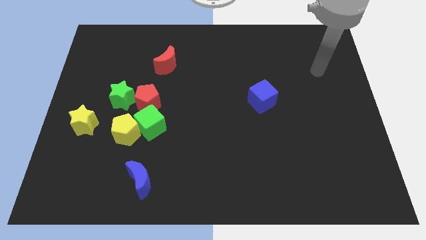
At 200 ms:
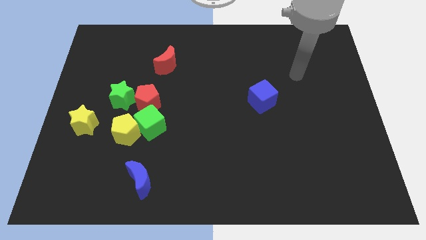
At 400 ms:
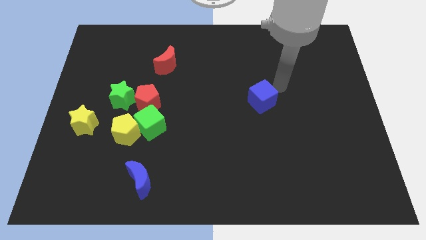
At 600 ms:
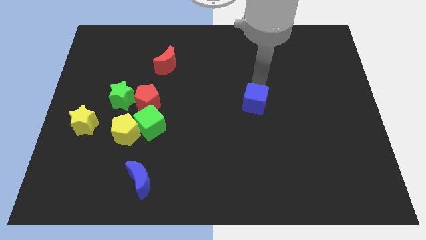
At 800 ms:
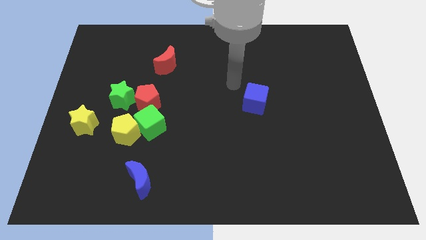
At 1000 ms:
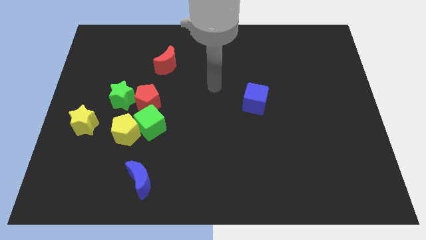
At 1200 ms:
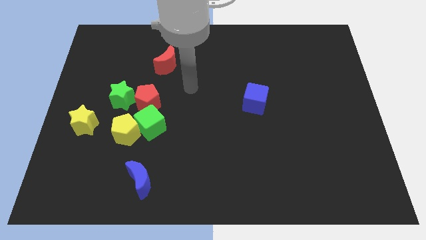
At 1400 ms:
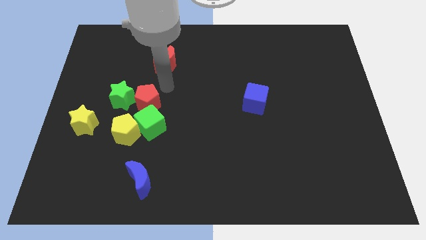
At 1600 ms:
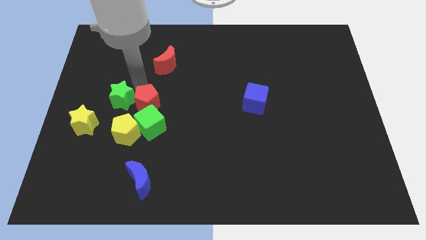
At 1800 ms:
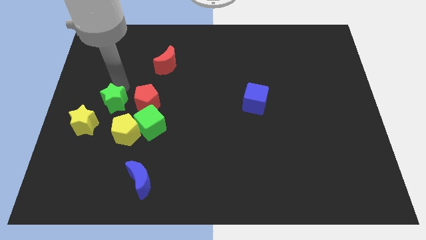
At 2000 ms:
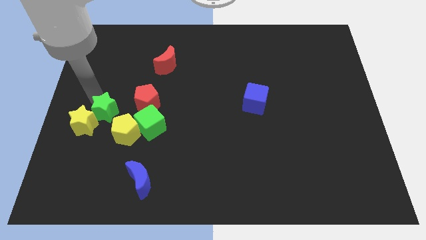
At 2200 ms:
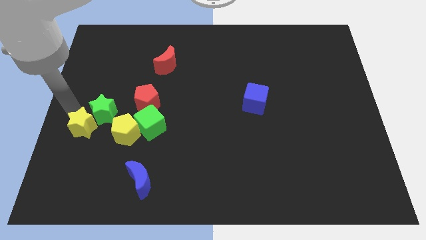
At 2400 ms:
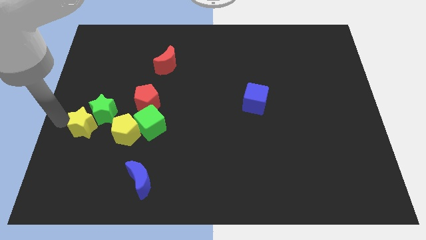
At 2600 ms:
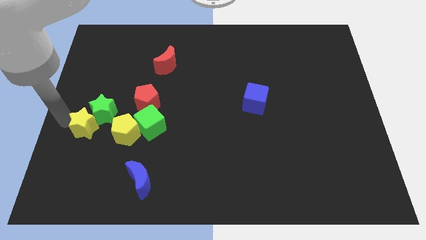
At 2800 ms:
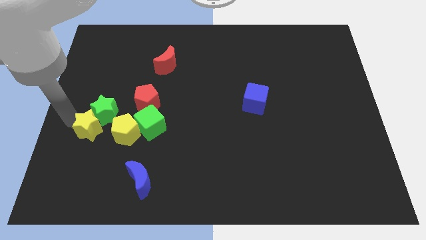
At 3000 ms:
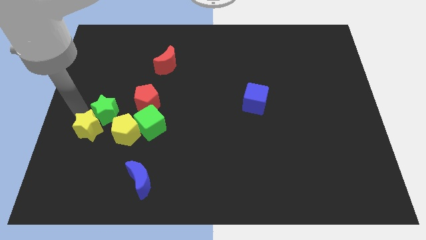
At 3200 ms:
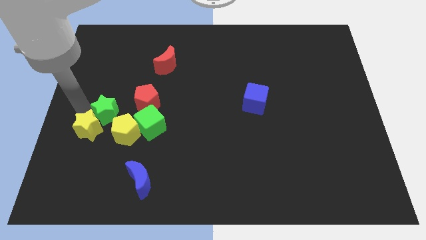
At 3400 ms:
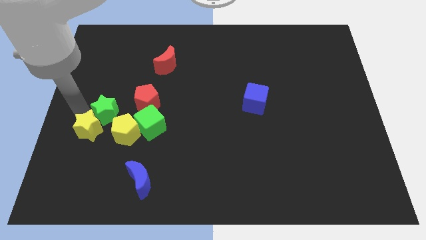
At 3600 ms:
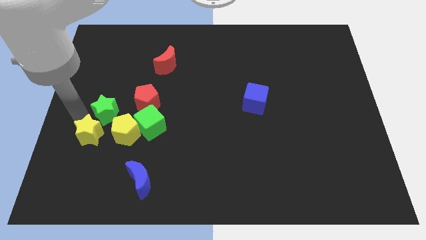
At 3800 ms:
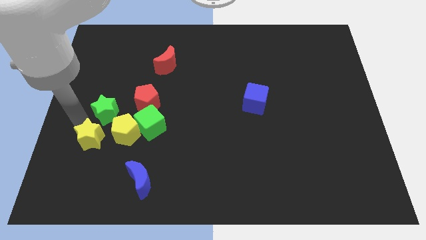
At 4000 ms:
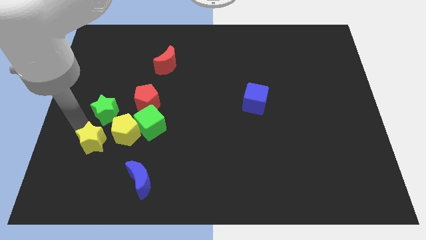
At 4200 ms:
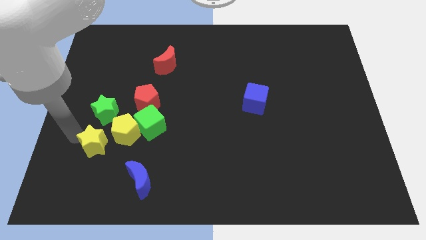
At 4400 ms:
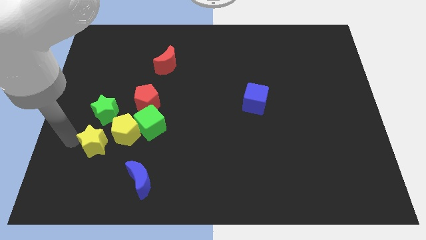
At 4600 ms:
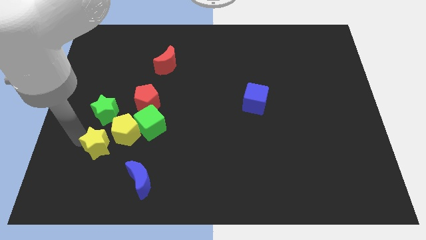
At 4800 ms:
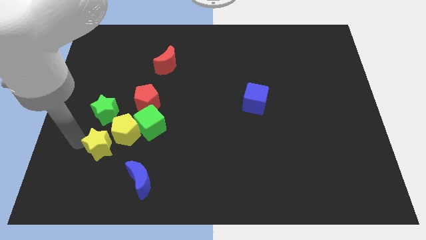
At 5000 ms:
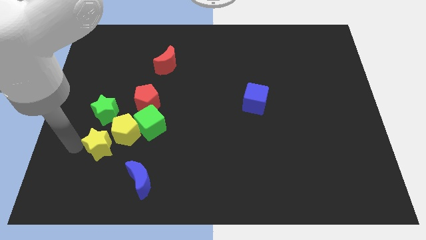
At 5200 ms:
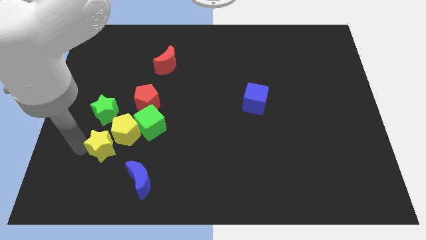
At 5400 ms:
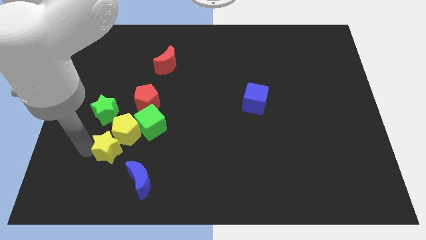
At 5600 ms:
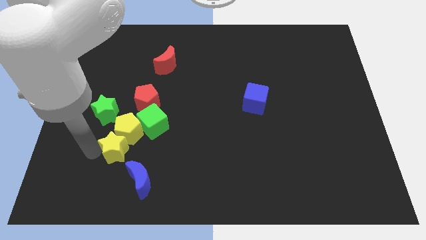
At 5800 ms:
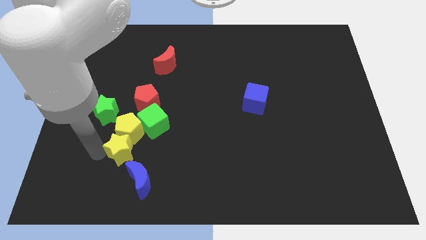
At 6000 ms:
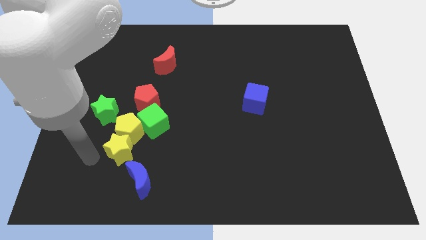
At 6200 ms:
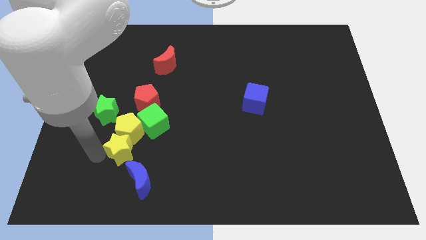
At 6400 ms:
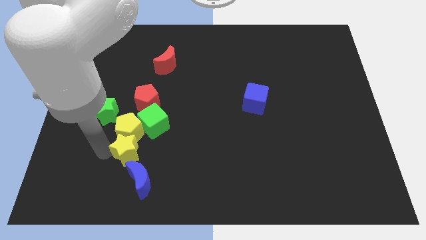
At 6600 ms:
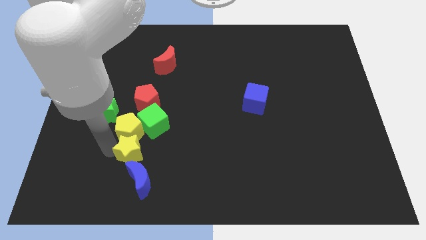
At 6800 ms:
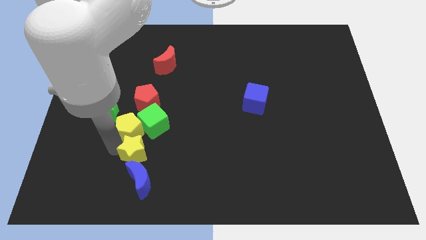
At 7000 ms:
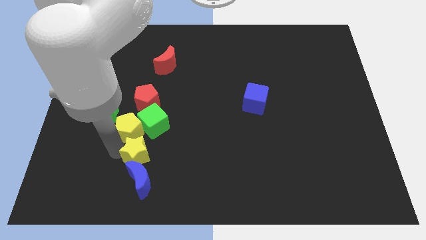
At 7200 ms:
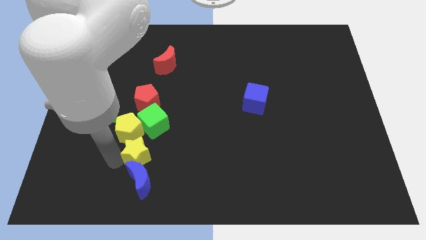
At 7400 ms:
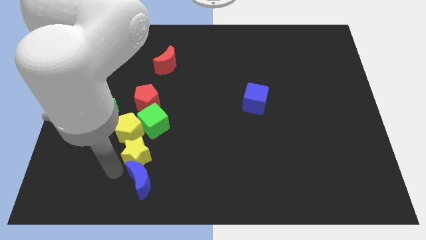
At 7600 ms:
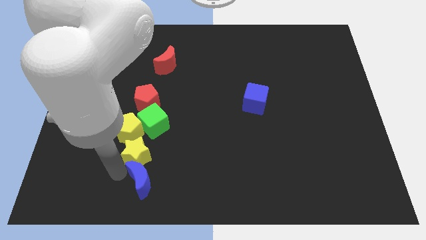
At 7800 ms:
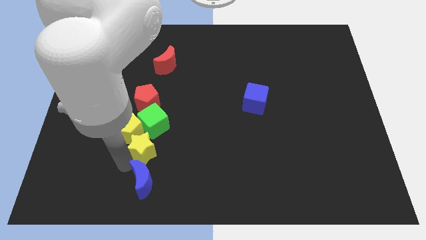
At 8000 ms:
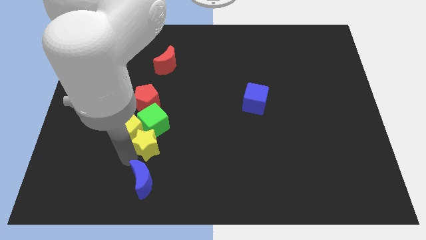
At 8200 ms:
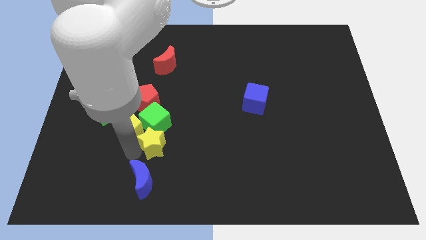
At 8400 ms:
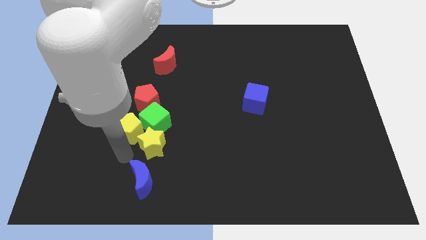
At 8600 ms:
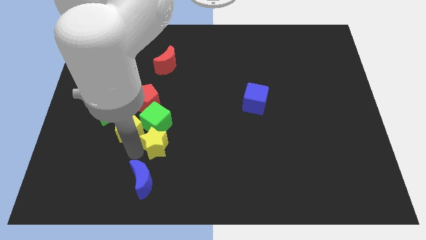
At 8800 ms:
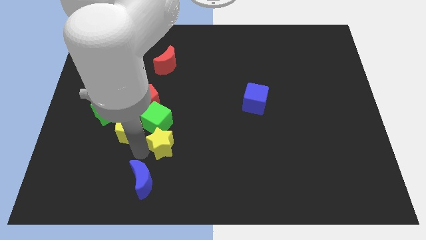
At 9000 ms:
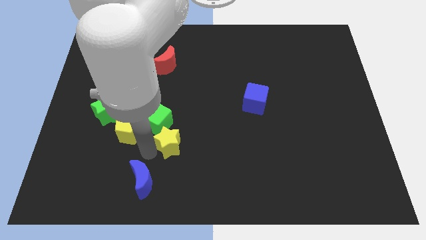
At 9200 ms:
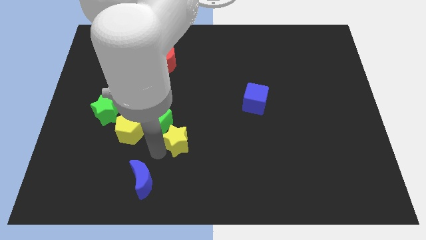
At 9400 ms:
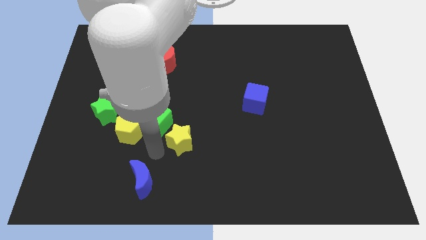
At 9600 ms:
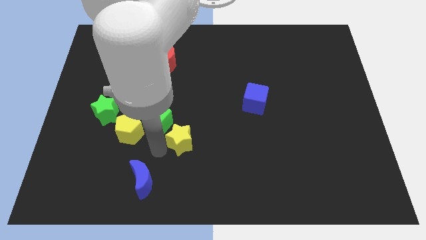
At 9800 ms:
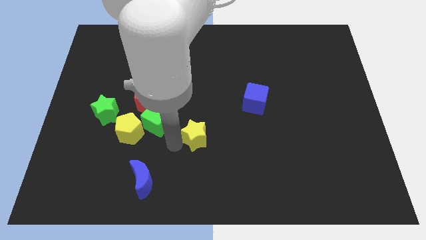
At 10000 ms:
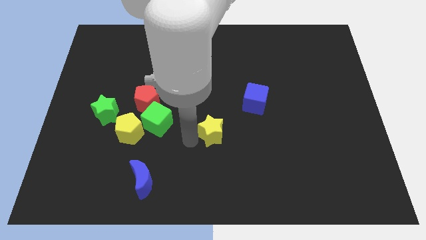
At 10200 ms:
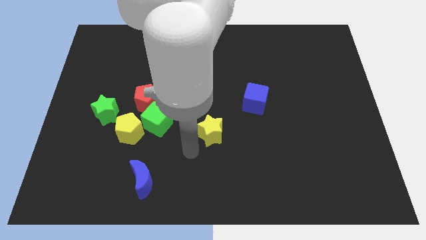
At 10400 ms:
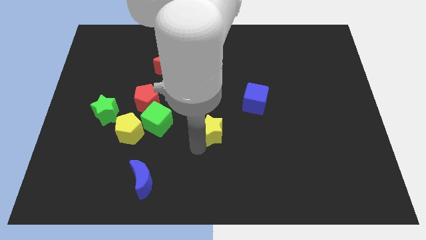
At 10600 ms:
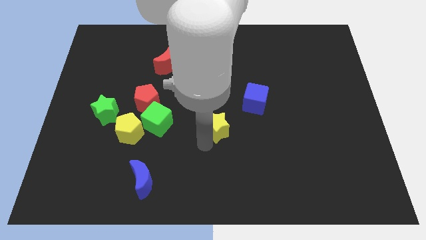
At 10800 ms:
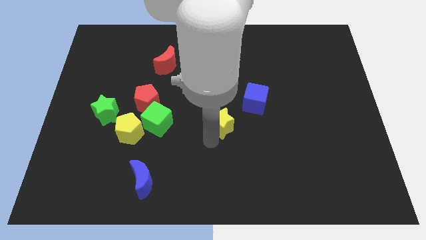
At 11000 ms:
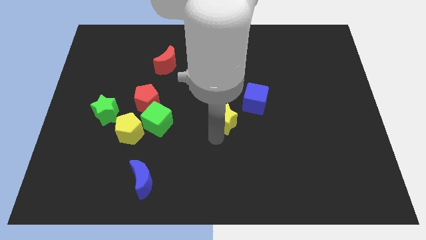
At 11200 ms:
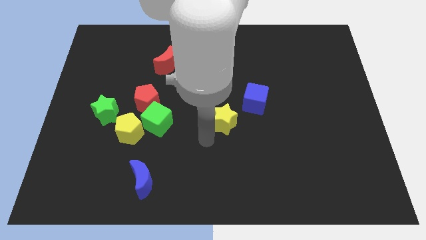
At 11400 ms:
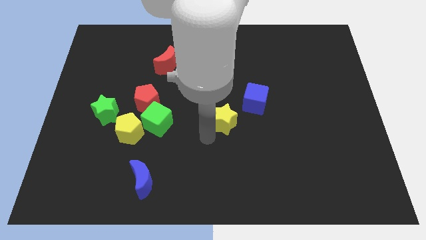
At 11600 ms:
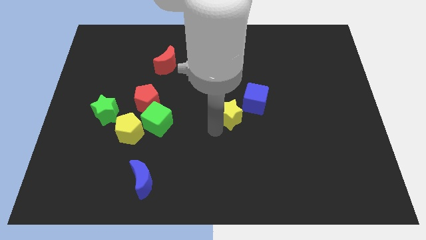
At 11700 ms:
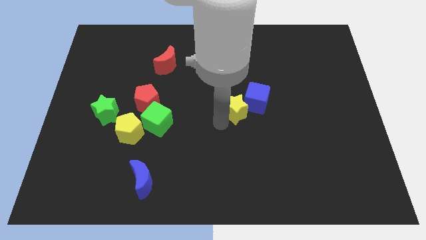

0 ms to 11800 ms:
put the yellow star to the blue cube

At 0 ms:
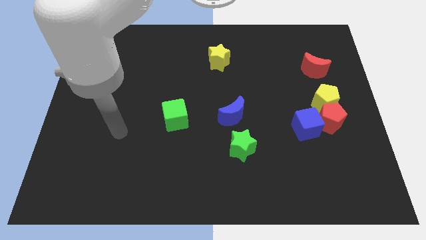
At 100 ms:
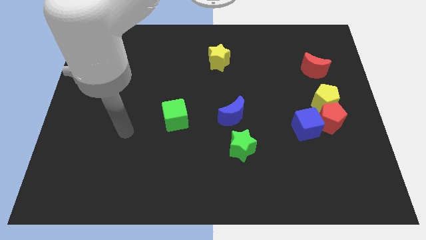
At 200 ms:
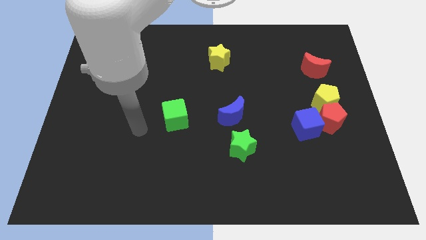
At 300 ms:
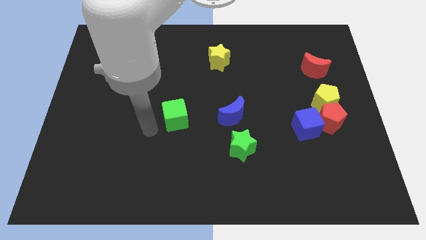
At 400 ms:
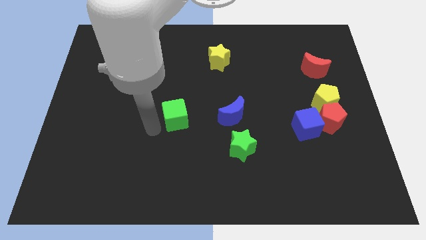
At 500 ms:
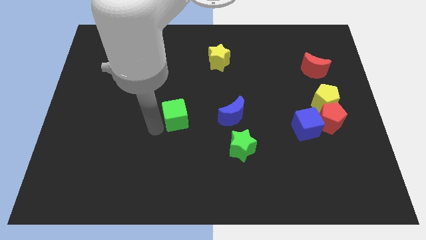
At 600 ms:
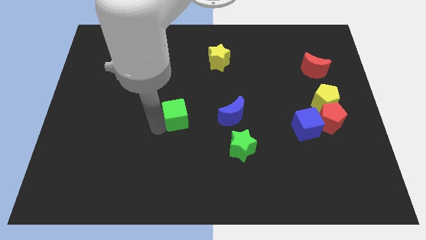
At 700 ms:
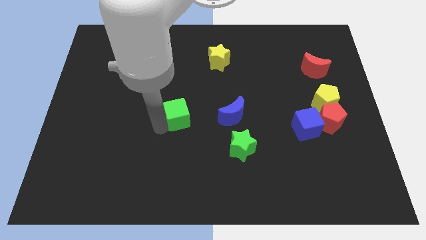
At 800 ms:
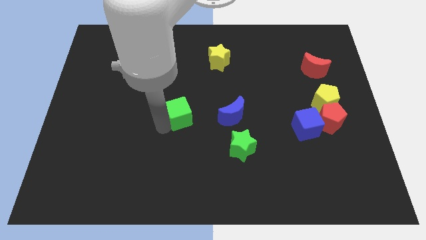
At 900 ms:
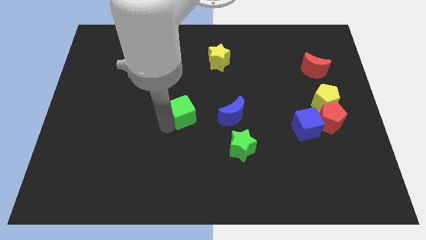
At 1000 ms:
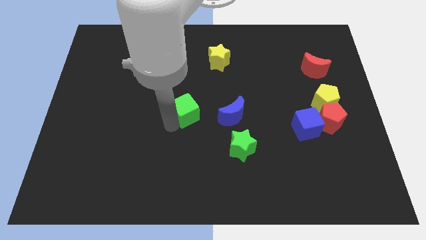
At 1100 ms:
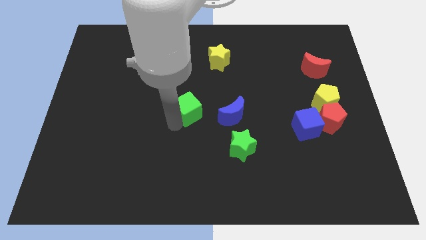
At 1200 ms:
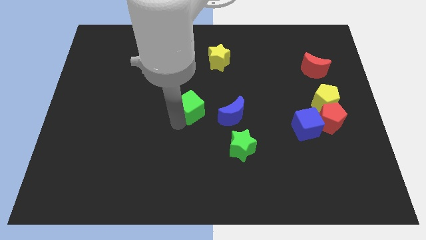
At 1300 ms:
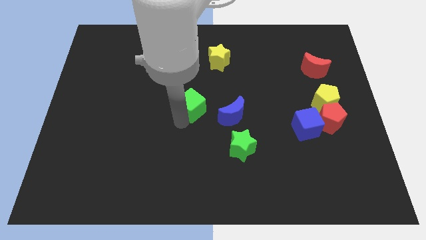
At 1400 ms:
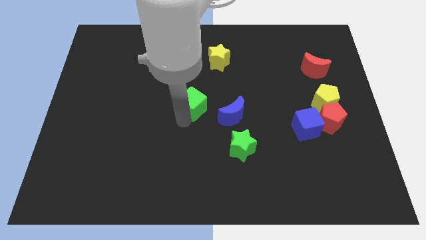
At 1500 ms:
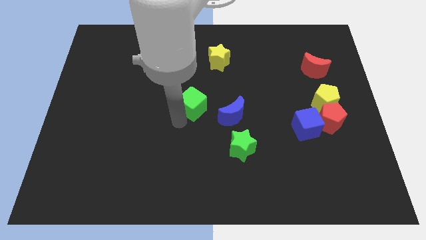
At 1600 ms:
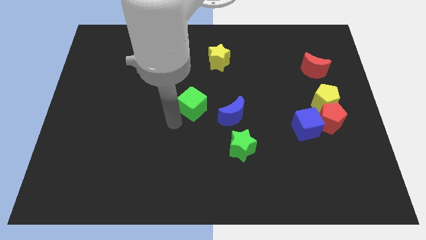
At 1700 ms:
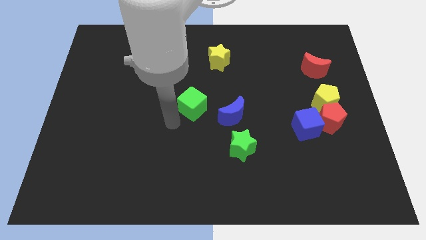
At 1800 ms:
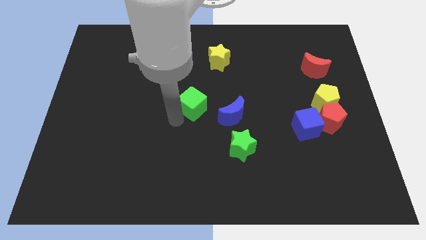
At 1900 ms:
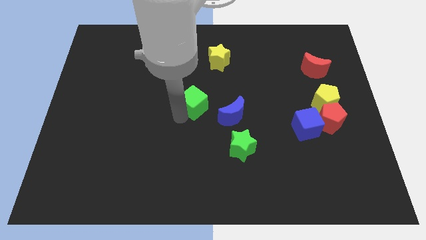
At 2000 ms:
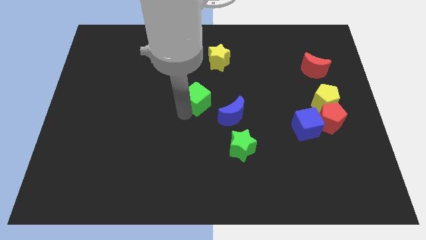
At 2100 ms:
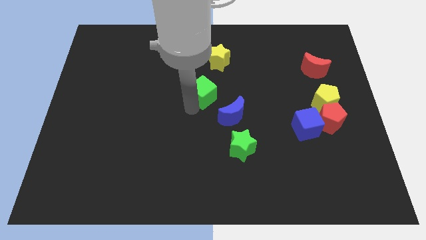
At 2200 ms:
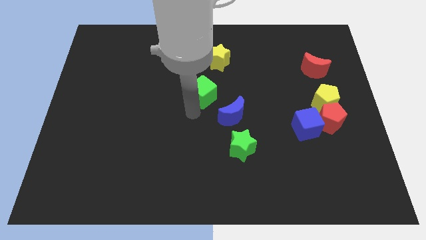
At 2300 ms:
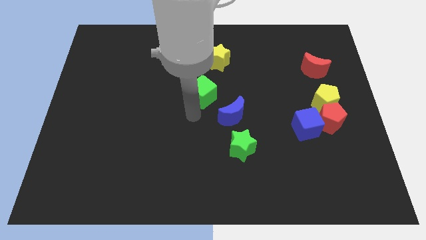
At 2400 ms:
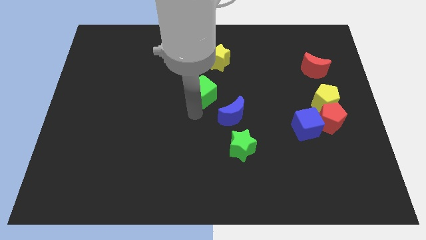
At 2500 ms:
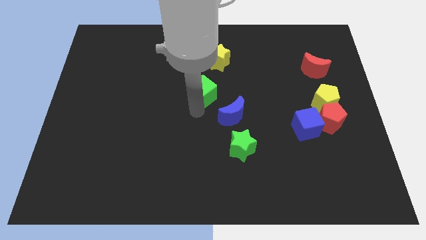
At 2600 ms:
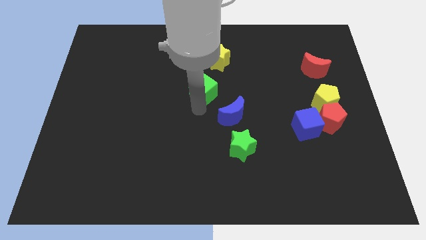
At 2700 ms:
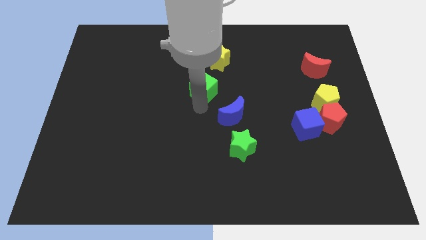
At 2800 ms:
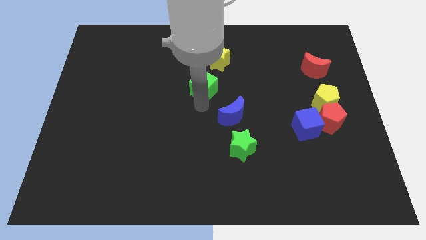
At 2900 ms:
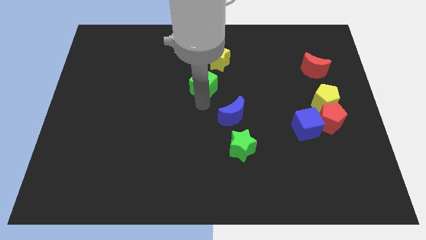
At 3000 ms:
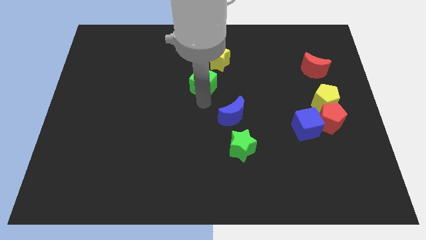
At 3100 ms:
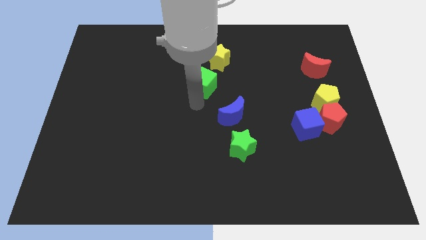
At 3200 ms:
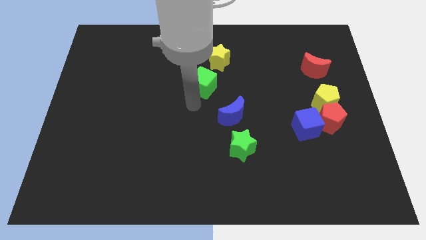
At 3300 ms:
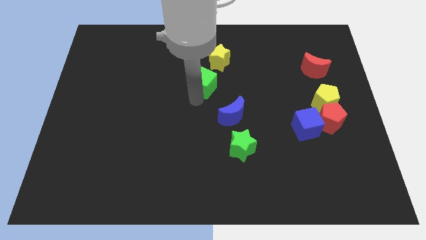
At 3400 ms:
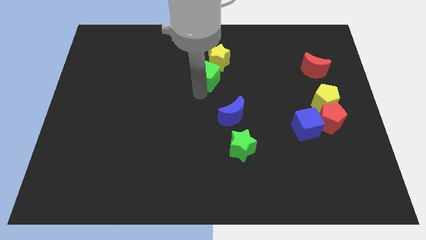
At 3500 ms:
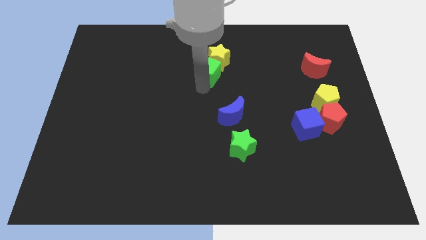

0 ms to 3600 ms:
push the green cube to the yellow star
